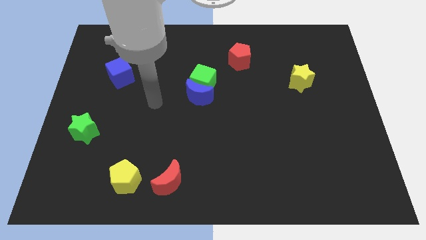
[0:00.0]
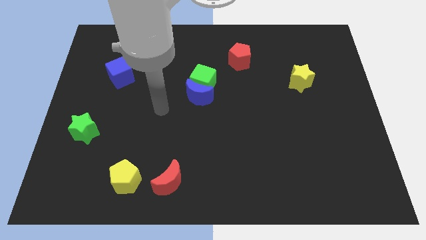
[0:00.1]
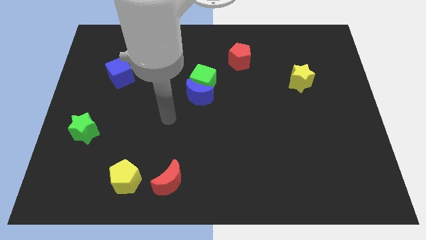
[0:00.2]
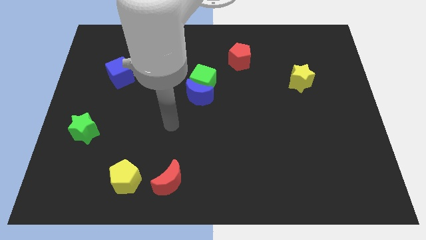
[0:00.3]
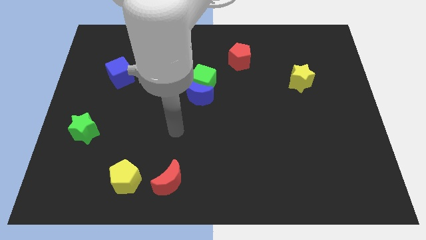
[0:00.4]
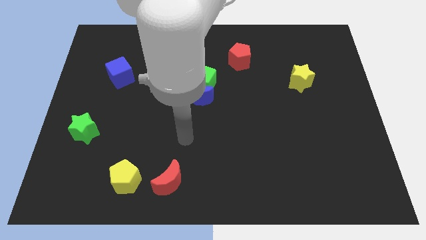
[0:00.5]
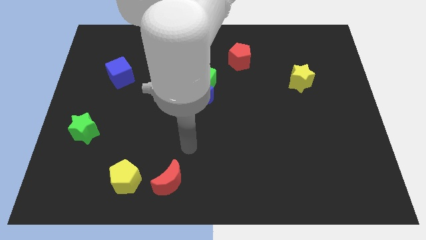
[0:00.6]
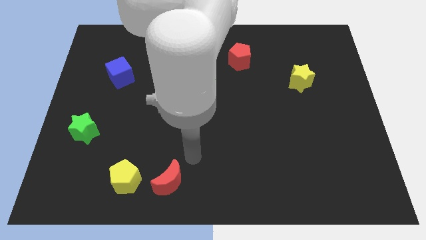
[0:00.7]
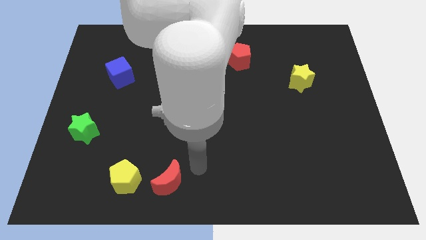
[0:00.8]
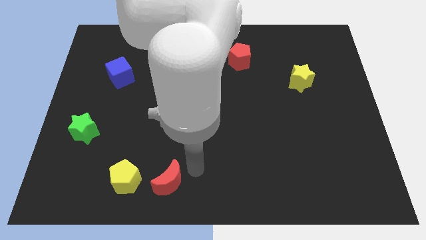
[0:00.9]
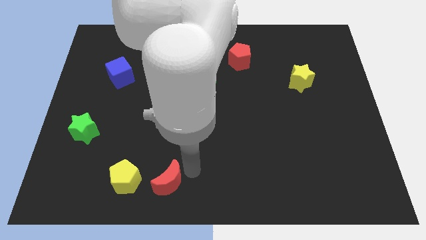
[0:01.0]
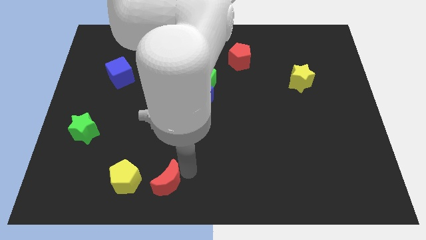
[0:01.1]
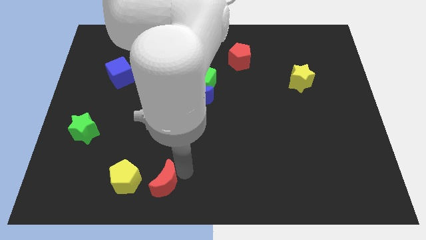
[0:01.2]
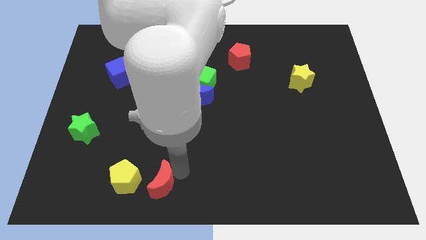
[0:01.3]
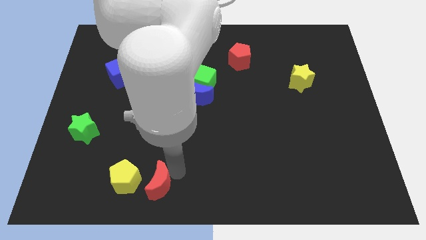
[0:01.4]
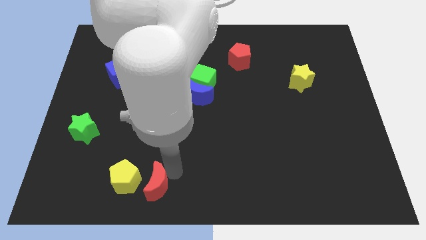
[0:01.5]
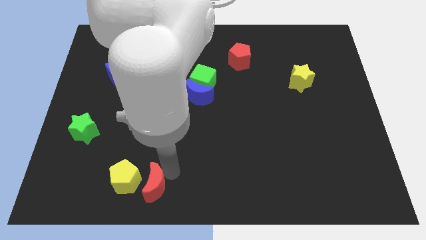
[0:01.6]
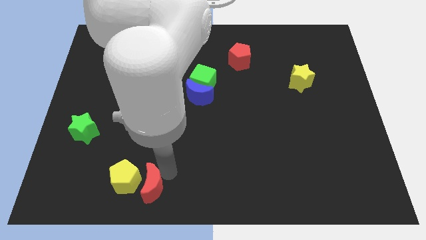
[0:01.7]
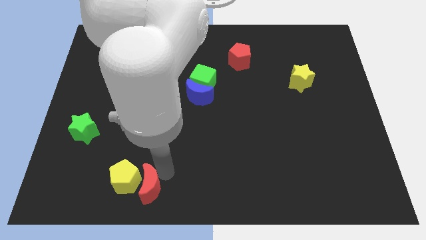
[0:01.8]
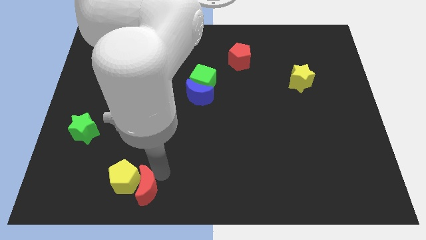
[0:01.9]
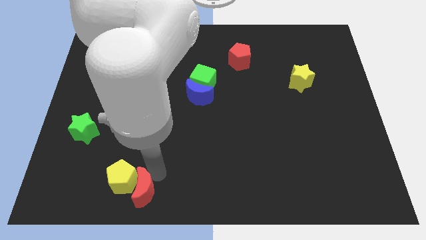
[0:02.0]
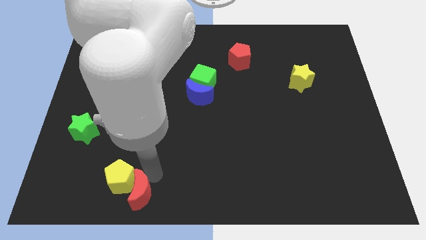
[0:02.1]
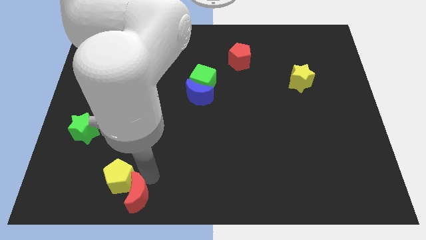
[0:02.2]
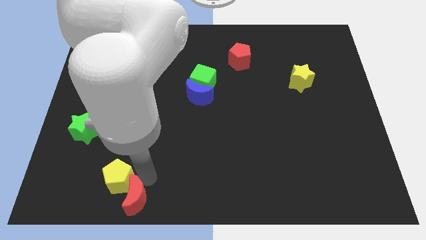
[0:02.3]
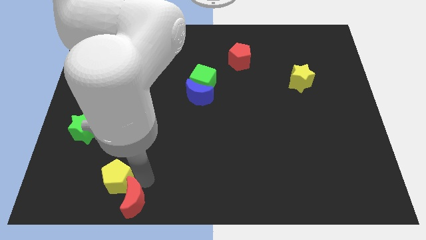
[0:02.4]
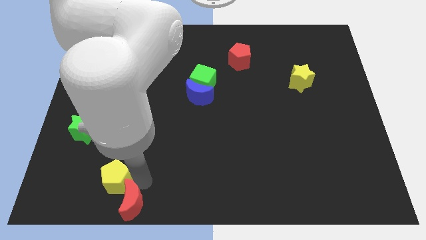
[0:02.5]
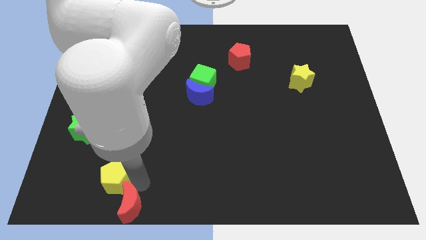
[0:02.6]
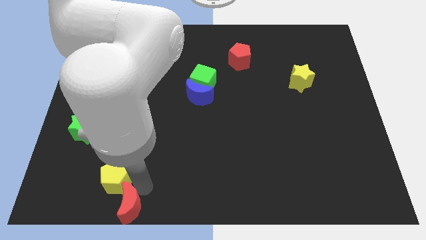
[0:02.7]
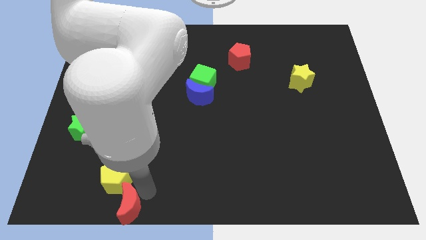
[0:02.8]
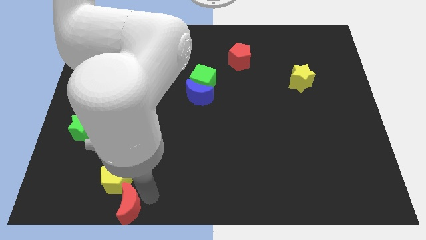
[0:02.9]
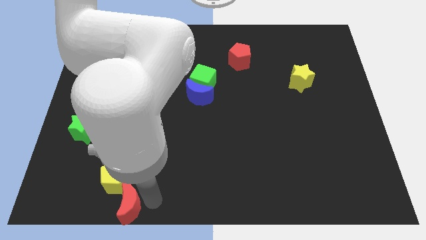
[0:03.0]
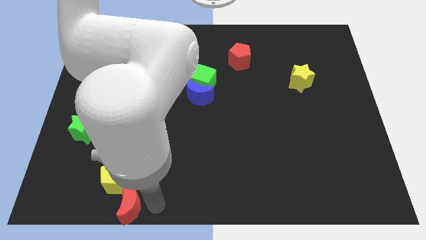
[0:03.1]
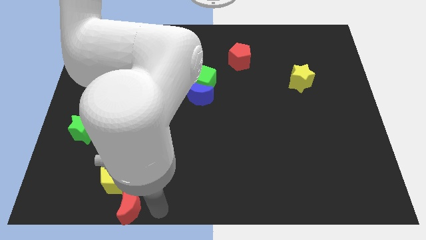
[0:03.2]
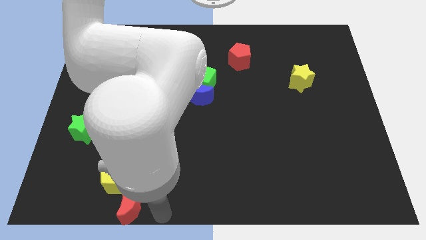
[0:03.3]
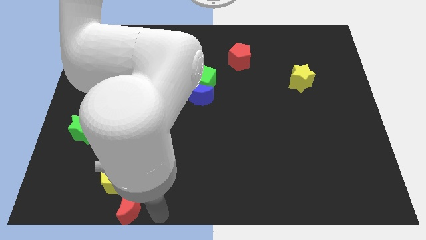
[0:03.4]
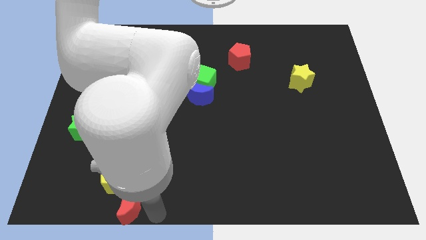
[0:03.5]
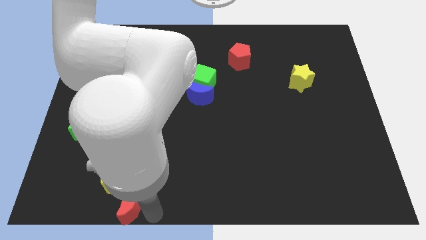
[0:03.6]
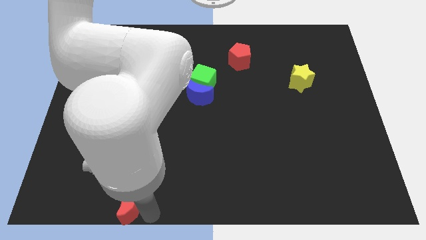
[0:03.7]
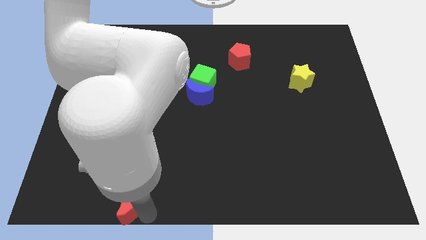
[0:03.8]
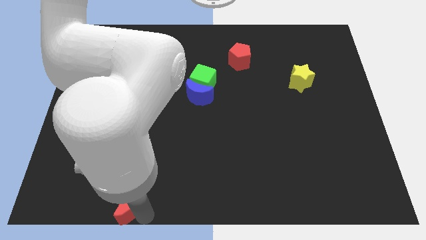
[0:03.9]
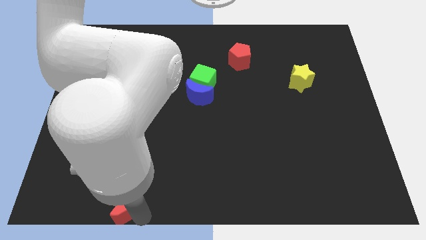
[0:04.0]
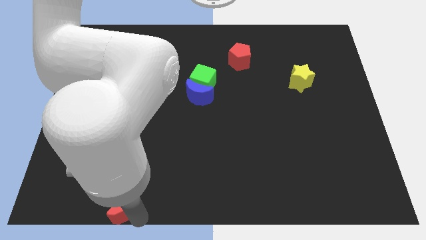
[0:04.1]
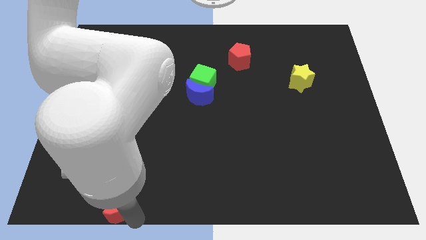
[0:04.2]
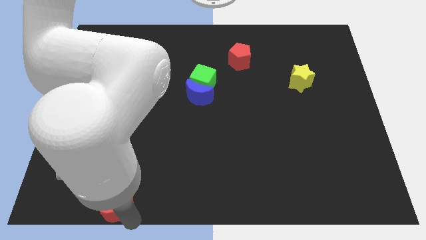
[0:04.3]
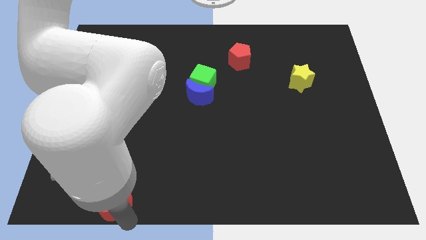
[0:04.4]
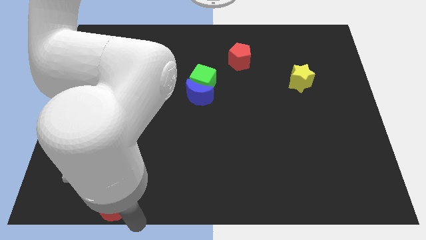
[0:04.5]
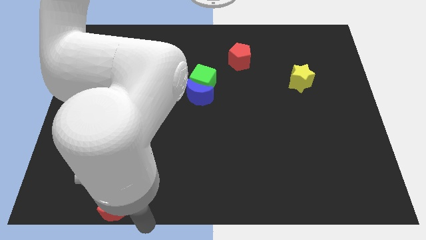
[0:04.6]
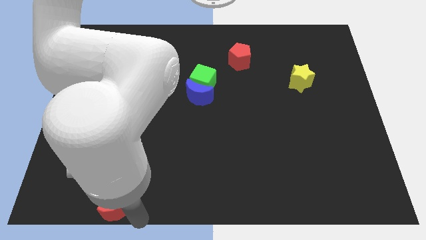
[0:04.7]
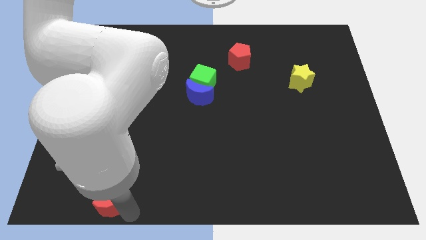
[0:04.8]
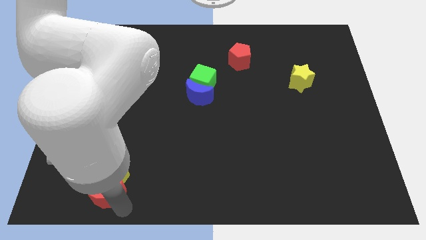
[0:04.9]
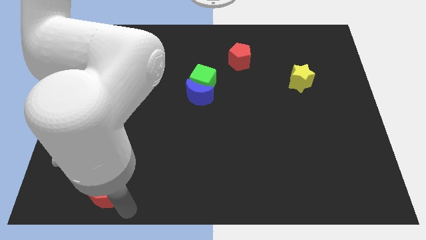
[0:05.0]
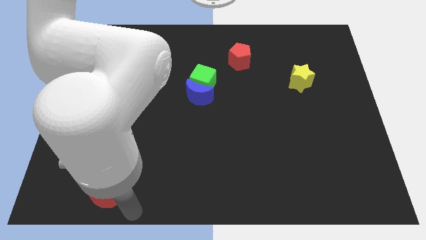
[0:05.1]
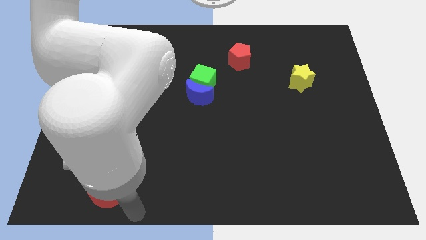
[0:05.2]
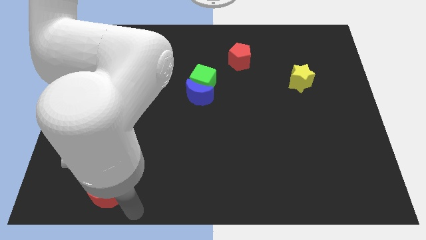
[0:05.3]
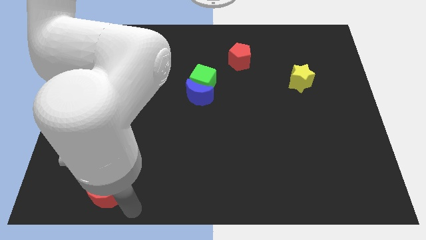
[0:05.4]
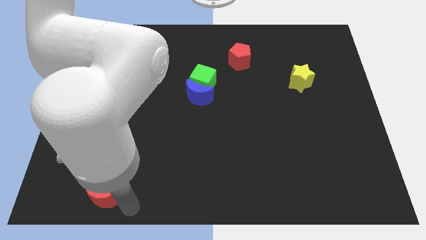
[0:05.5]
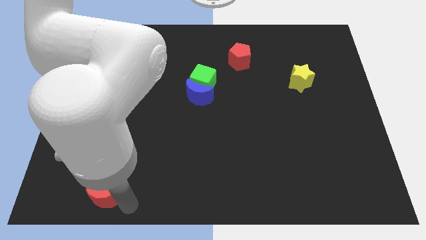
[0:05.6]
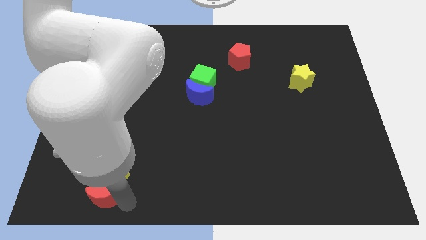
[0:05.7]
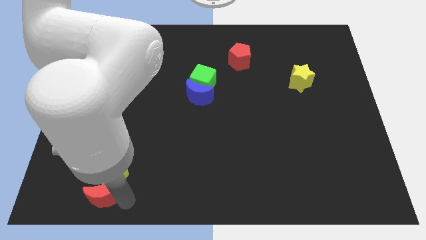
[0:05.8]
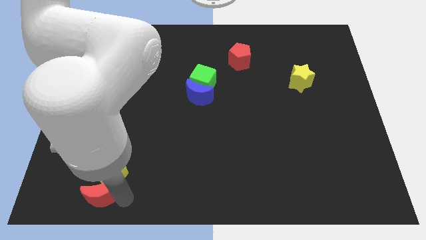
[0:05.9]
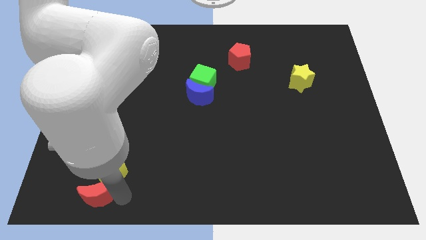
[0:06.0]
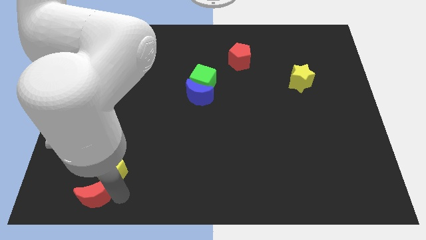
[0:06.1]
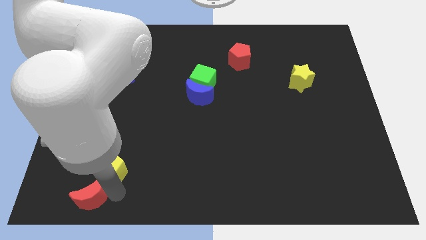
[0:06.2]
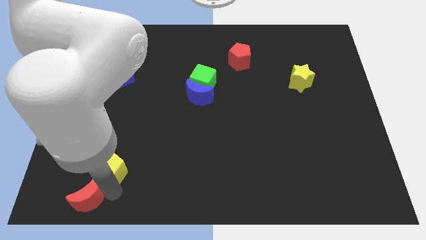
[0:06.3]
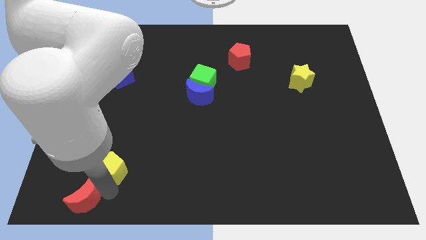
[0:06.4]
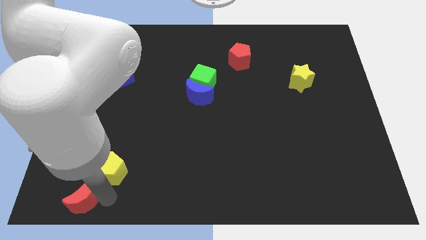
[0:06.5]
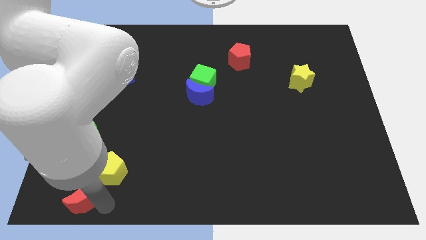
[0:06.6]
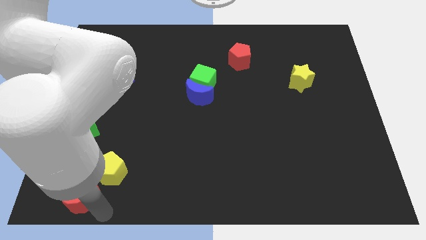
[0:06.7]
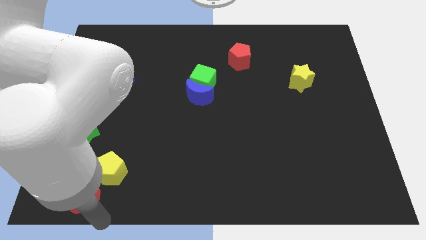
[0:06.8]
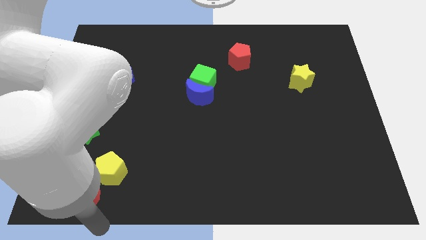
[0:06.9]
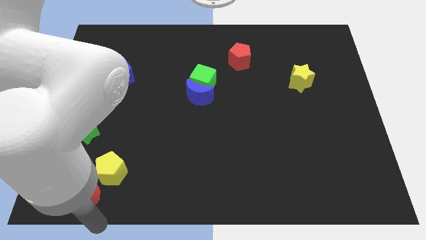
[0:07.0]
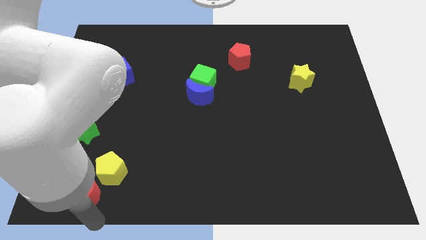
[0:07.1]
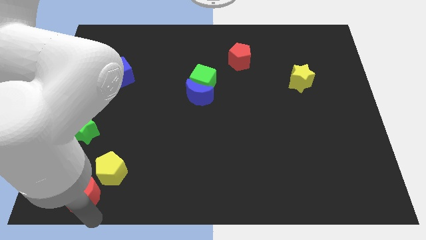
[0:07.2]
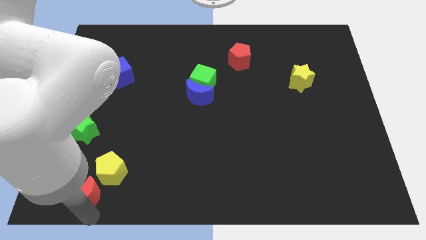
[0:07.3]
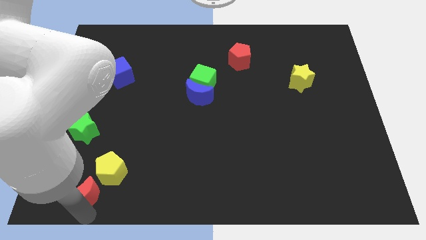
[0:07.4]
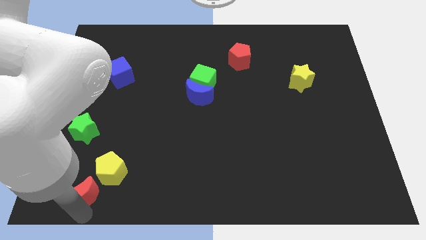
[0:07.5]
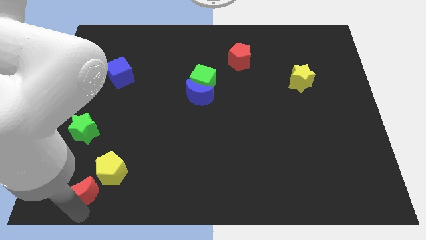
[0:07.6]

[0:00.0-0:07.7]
put the red moon to the bottom side of the green star
